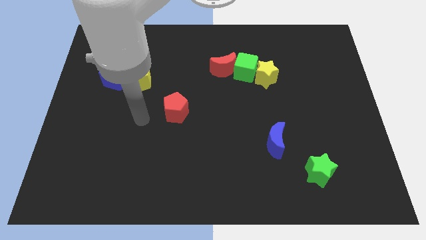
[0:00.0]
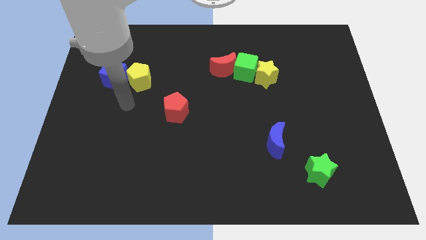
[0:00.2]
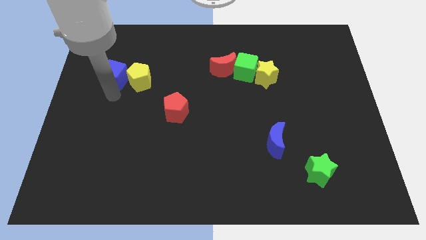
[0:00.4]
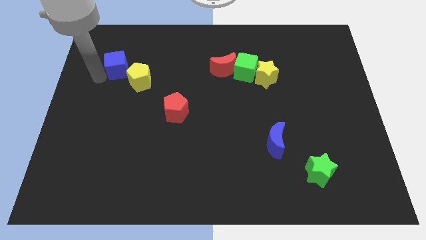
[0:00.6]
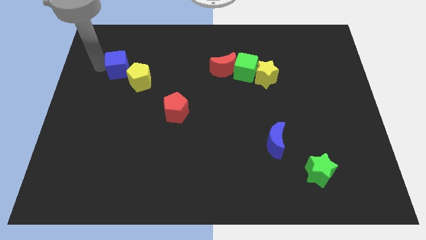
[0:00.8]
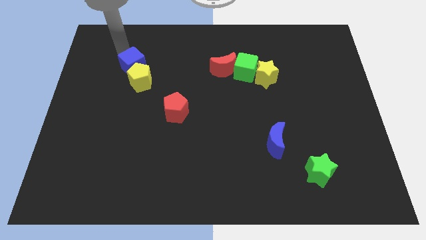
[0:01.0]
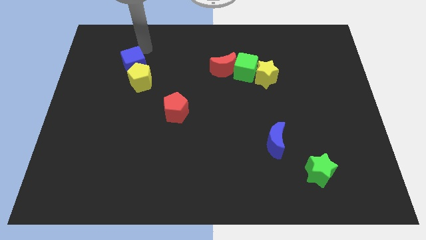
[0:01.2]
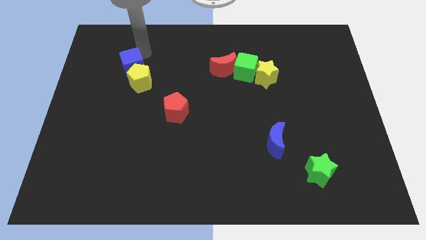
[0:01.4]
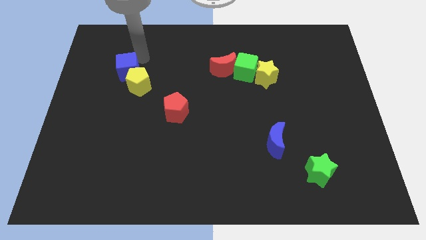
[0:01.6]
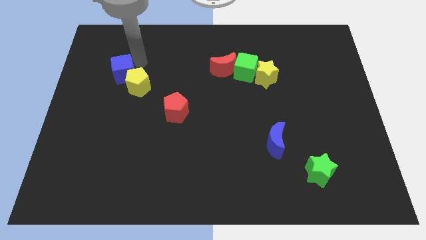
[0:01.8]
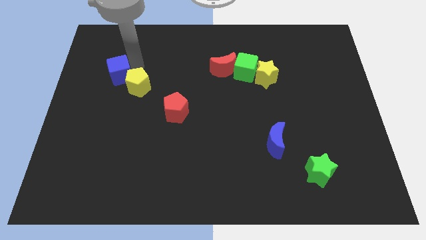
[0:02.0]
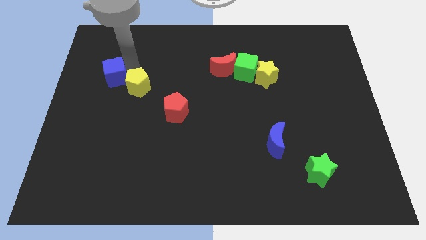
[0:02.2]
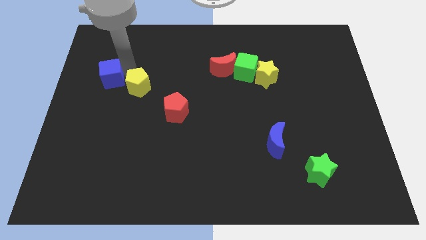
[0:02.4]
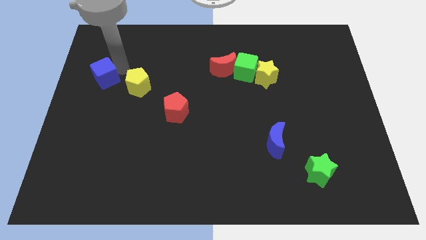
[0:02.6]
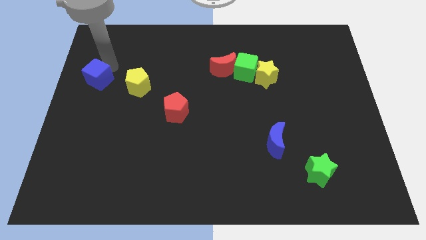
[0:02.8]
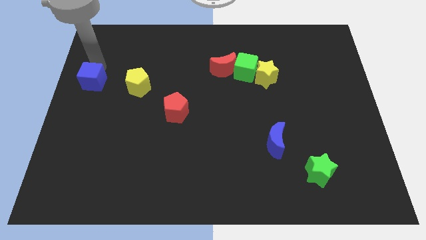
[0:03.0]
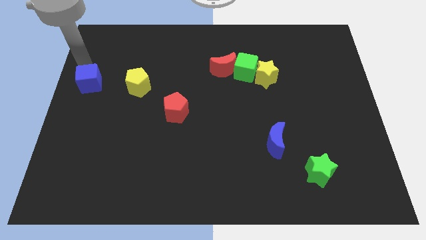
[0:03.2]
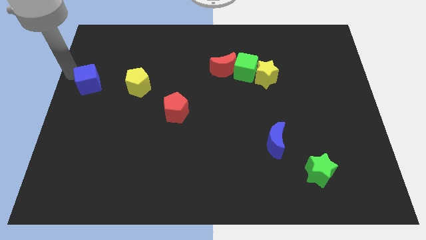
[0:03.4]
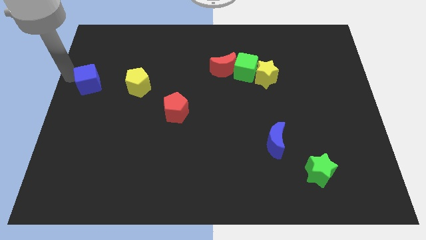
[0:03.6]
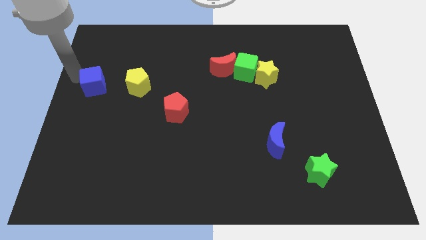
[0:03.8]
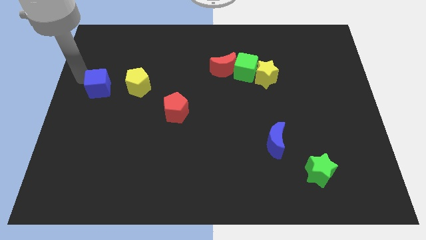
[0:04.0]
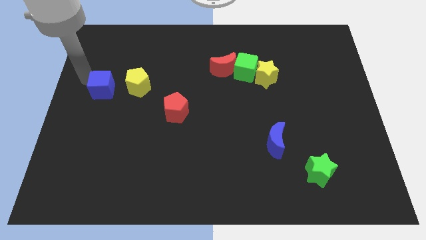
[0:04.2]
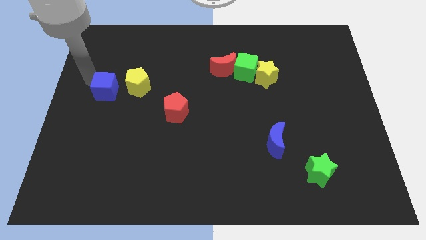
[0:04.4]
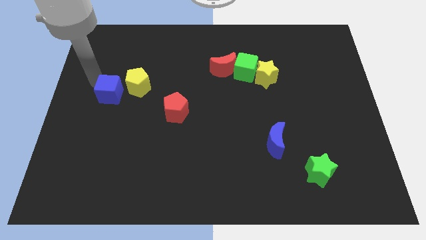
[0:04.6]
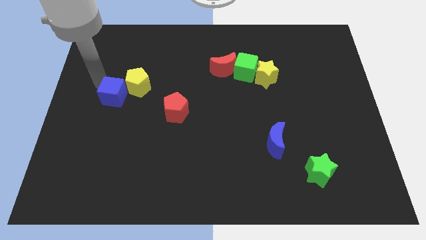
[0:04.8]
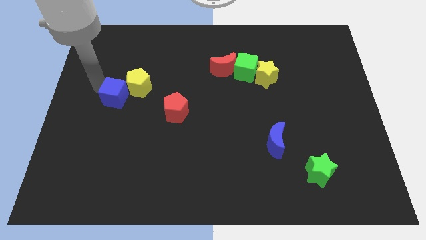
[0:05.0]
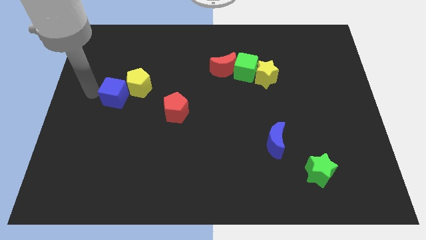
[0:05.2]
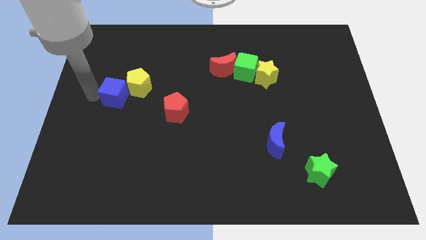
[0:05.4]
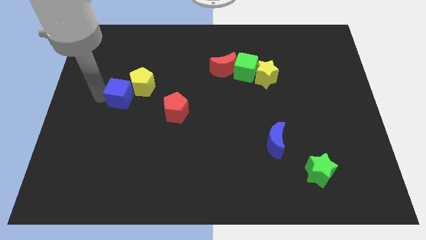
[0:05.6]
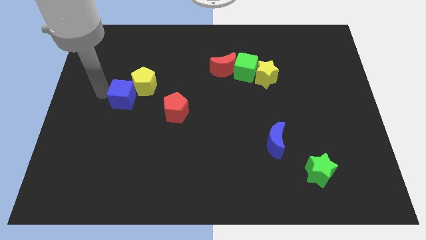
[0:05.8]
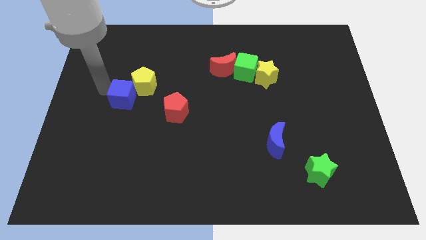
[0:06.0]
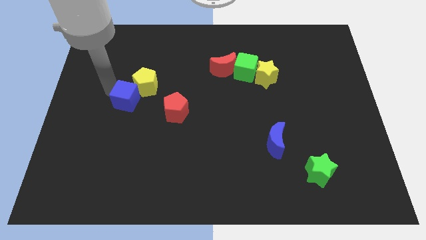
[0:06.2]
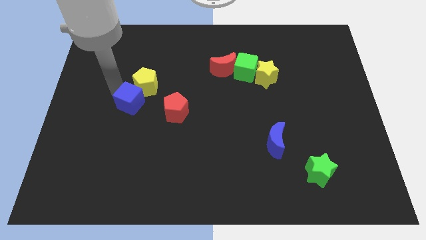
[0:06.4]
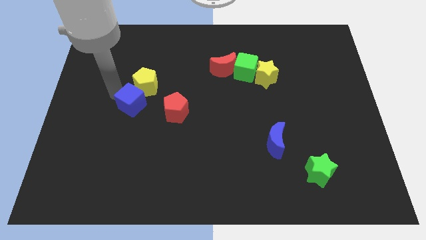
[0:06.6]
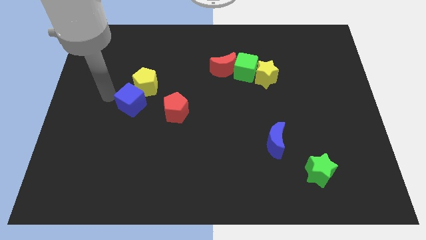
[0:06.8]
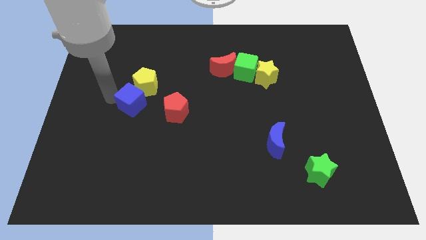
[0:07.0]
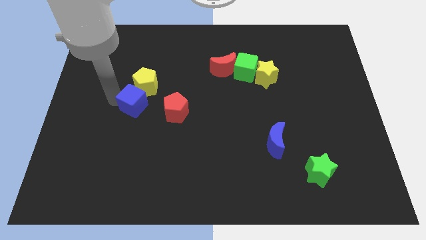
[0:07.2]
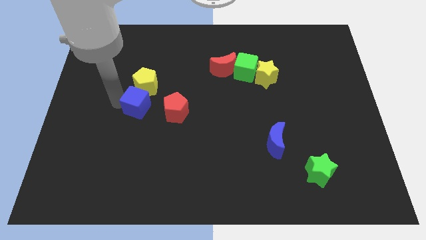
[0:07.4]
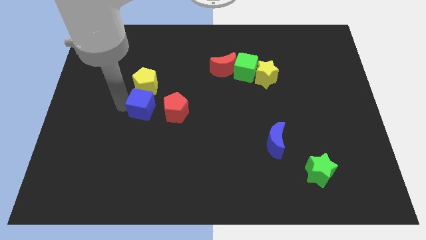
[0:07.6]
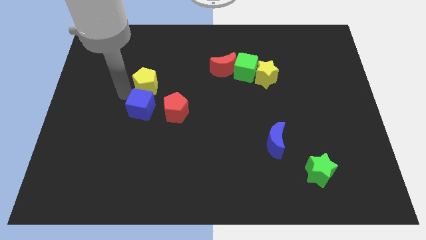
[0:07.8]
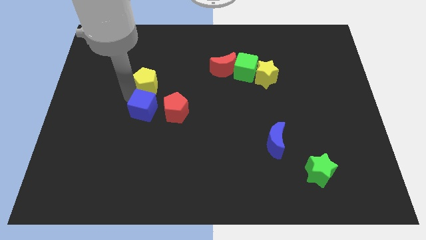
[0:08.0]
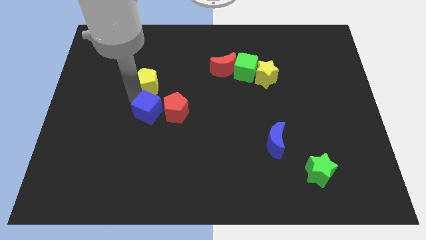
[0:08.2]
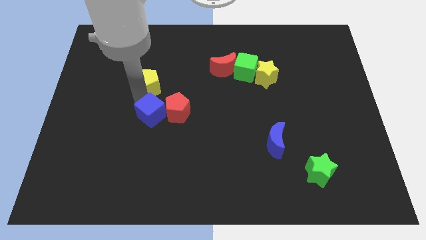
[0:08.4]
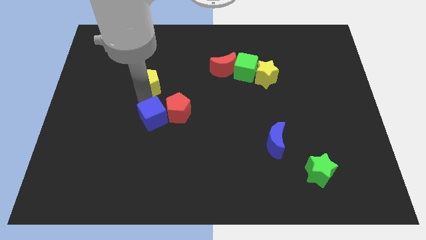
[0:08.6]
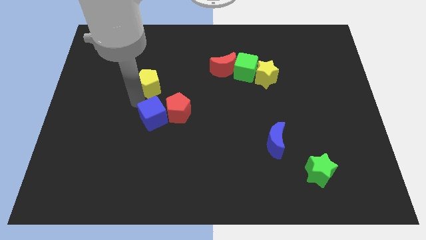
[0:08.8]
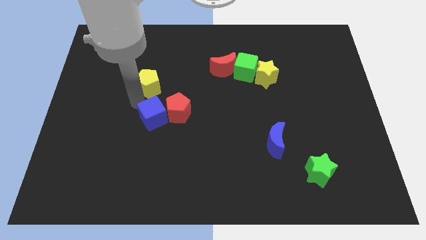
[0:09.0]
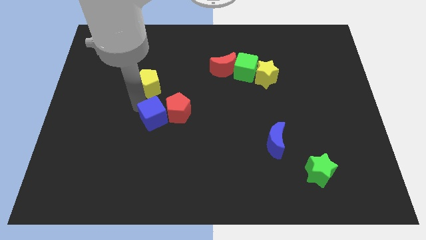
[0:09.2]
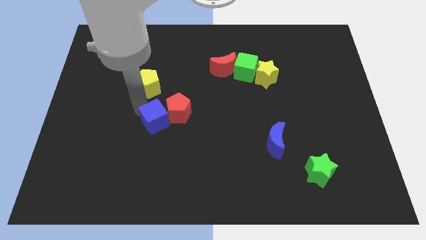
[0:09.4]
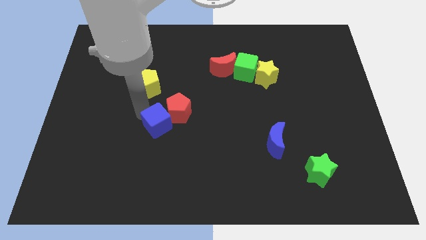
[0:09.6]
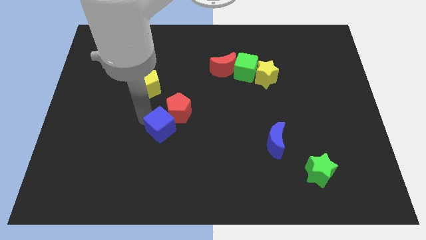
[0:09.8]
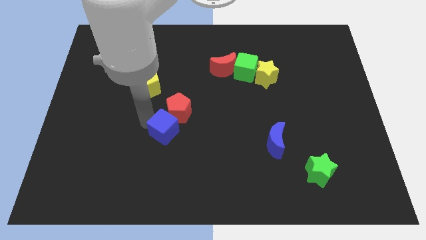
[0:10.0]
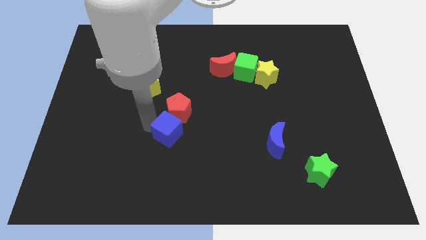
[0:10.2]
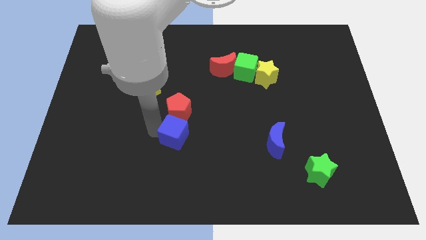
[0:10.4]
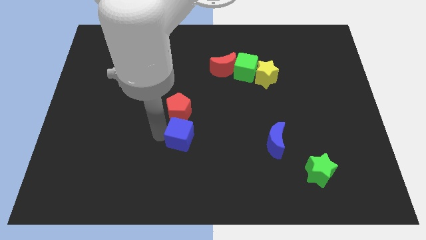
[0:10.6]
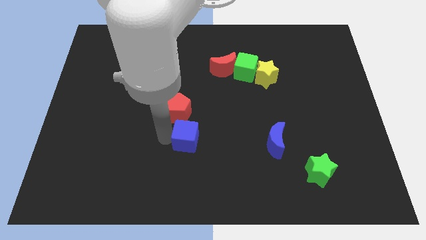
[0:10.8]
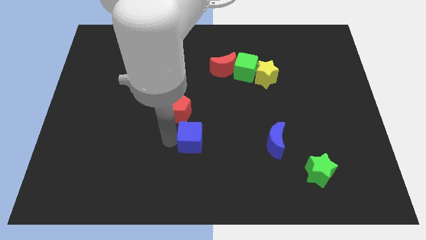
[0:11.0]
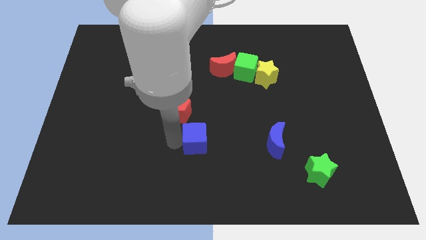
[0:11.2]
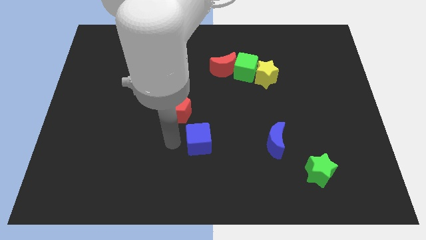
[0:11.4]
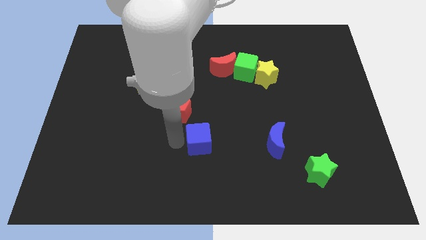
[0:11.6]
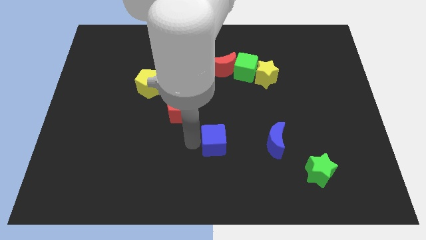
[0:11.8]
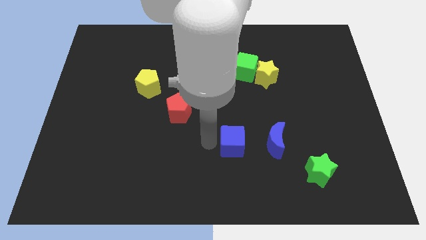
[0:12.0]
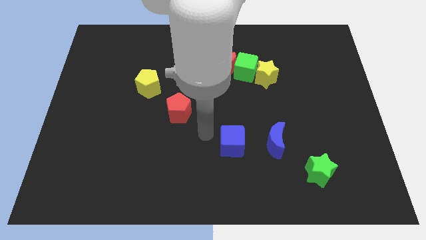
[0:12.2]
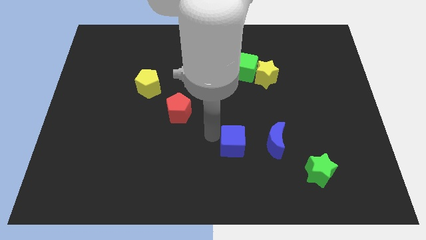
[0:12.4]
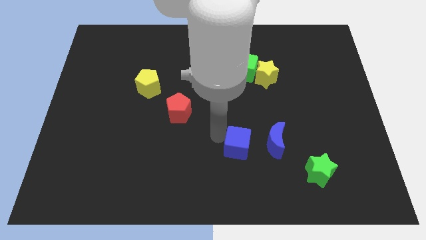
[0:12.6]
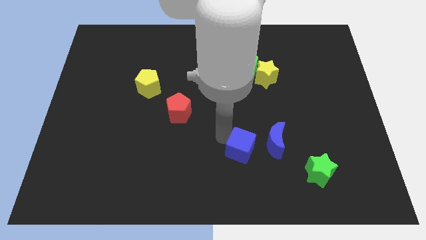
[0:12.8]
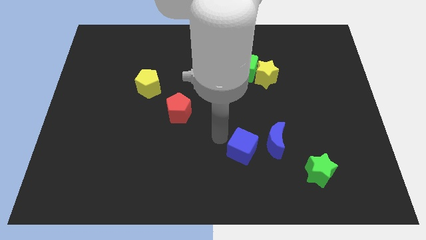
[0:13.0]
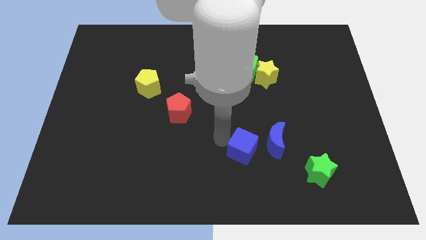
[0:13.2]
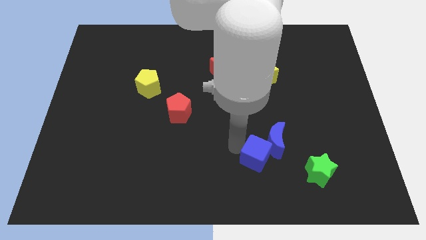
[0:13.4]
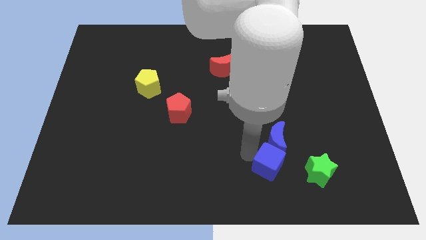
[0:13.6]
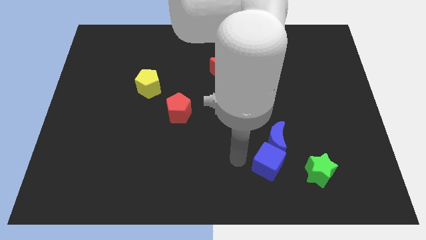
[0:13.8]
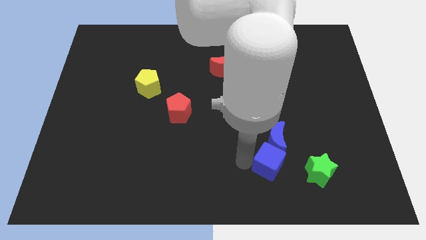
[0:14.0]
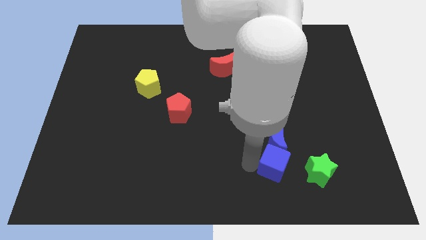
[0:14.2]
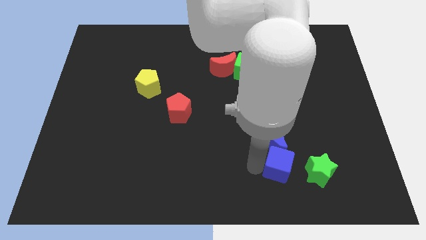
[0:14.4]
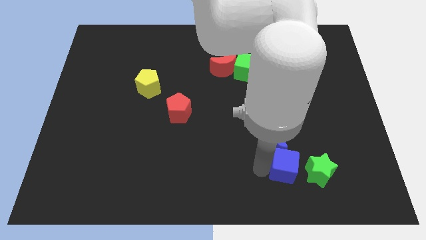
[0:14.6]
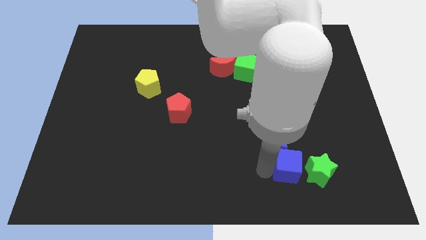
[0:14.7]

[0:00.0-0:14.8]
slide the blue cube to the green star
